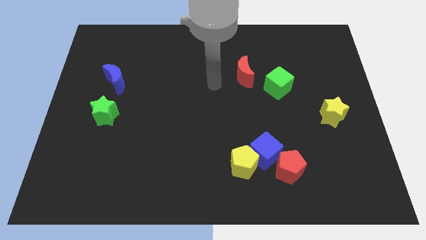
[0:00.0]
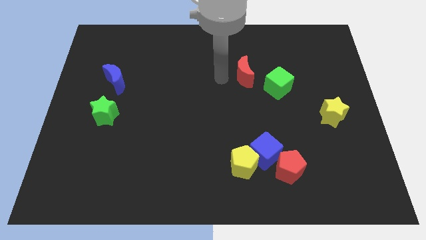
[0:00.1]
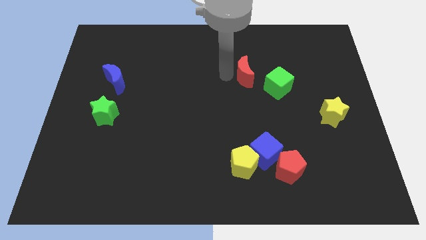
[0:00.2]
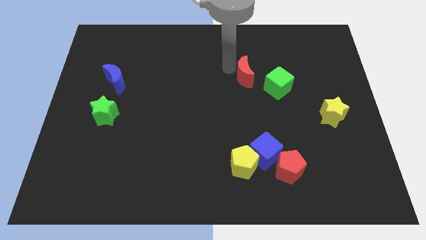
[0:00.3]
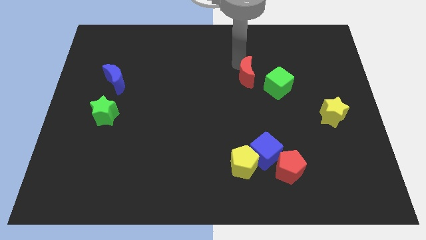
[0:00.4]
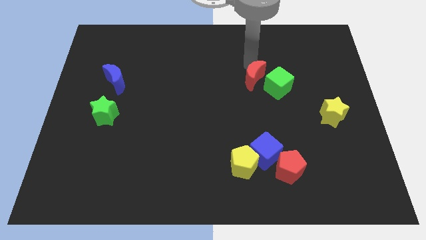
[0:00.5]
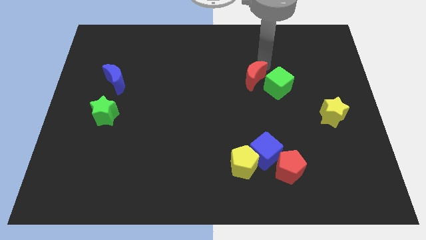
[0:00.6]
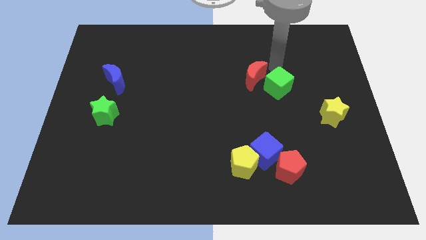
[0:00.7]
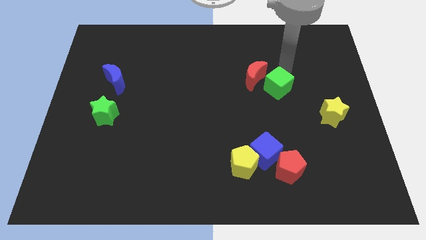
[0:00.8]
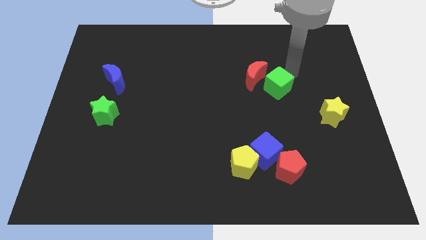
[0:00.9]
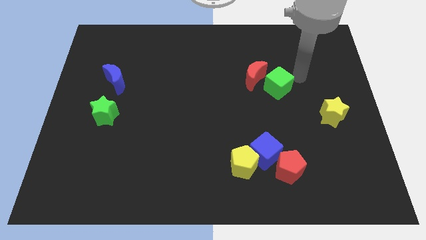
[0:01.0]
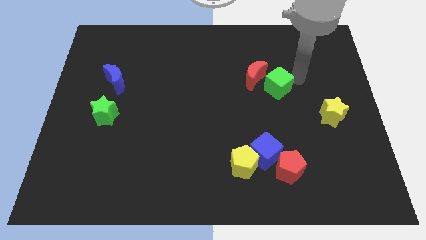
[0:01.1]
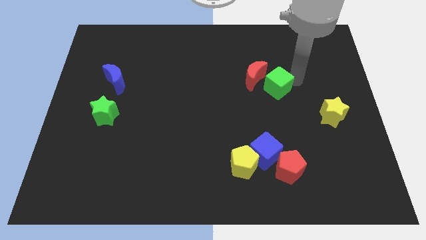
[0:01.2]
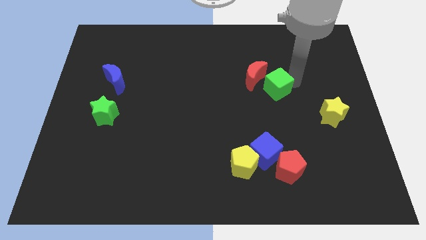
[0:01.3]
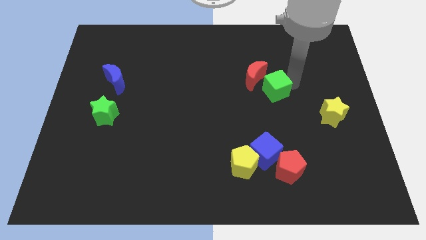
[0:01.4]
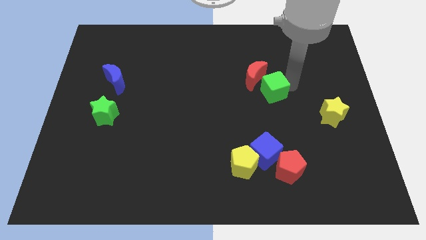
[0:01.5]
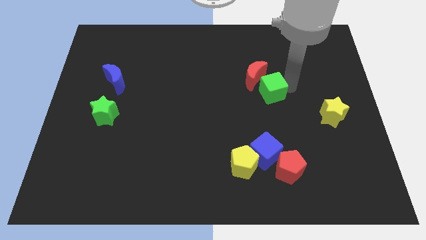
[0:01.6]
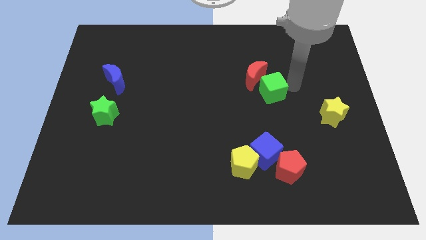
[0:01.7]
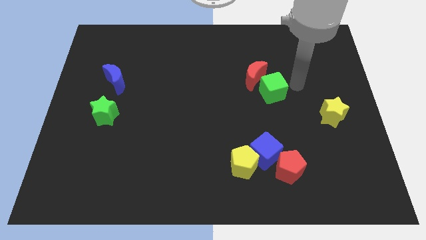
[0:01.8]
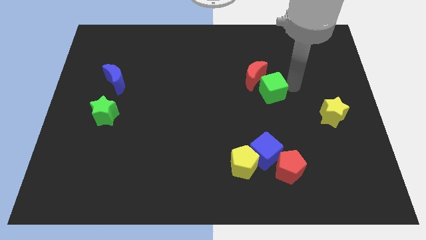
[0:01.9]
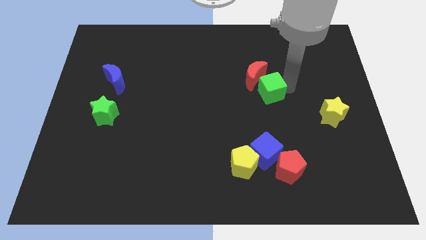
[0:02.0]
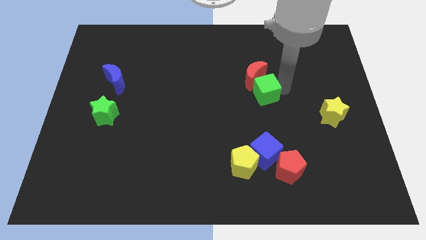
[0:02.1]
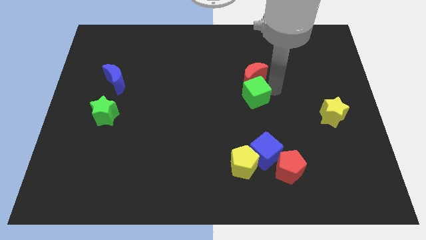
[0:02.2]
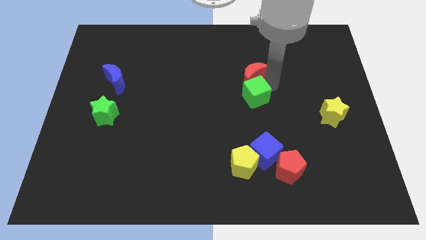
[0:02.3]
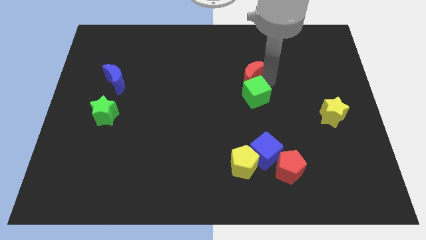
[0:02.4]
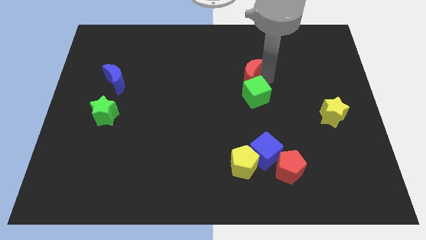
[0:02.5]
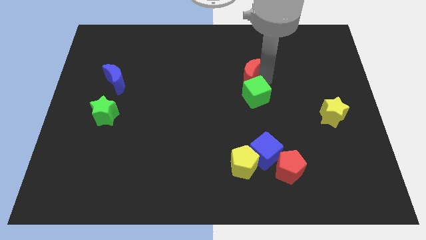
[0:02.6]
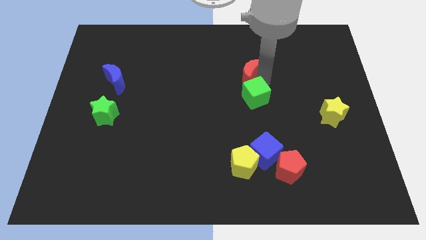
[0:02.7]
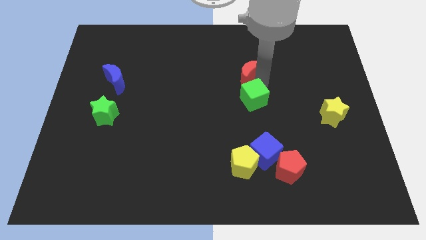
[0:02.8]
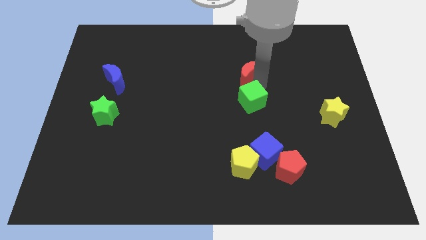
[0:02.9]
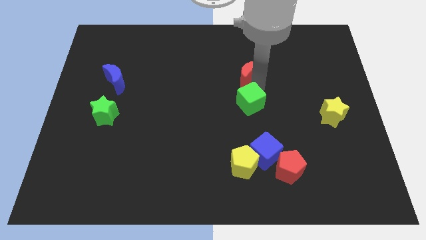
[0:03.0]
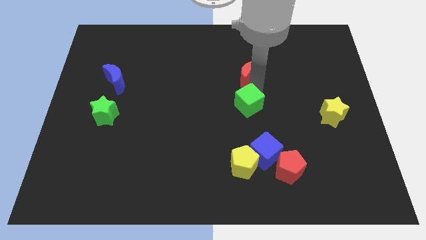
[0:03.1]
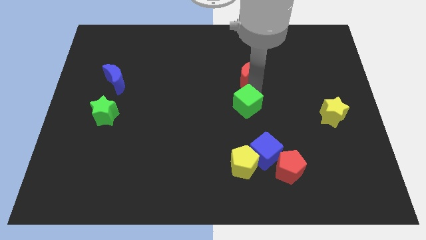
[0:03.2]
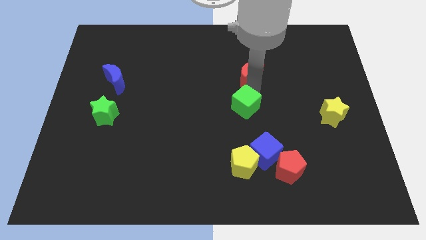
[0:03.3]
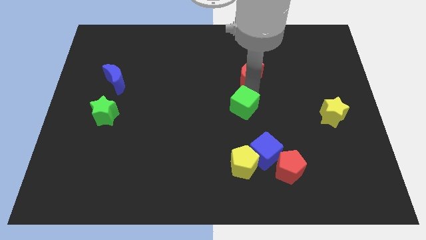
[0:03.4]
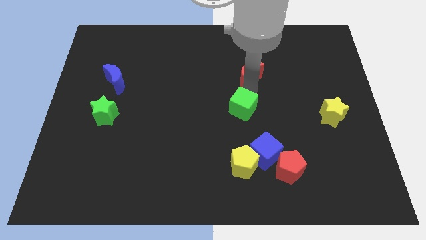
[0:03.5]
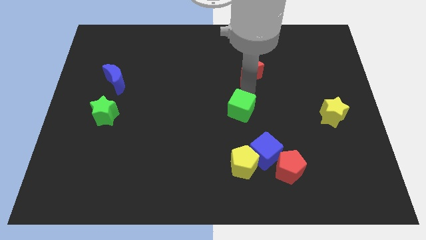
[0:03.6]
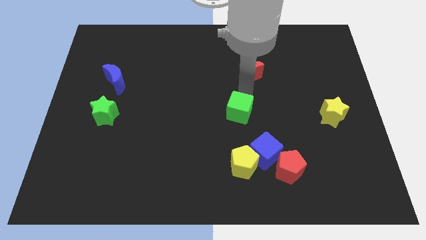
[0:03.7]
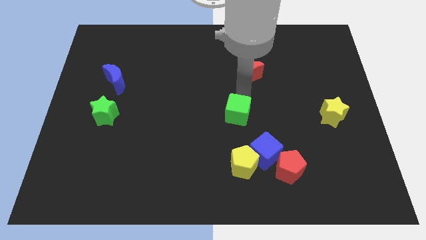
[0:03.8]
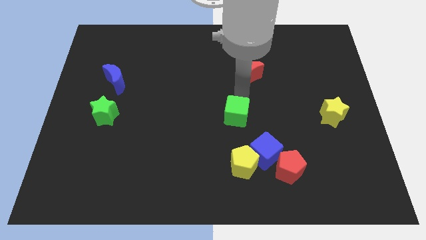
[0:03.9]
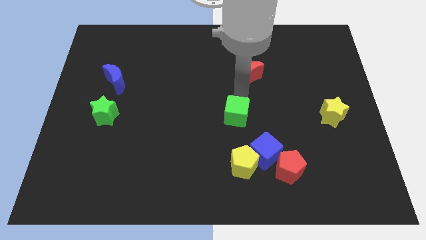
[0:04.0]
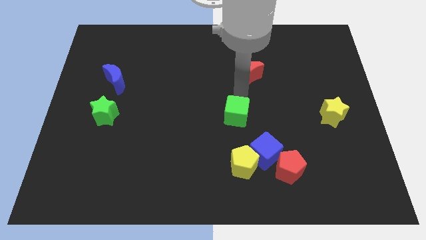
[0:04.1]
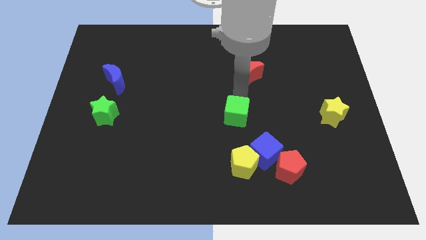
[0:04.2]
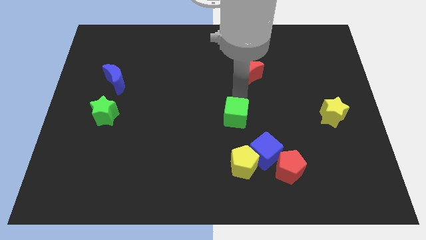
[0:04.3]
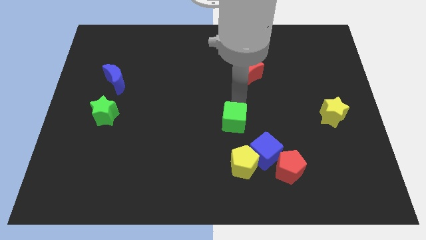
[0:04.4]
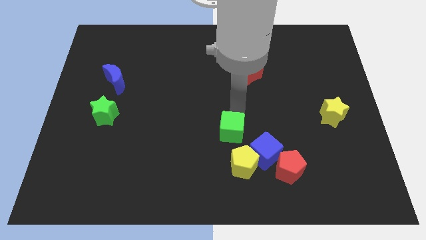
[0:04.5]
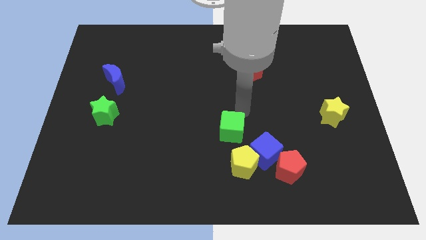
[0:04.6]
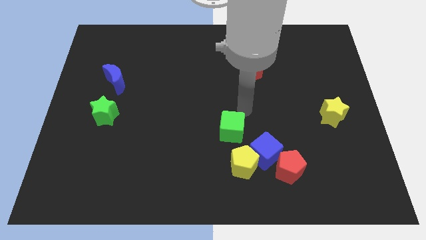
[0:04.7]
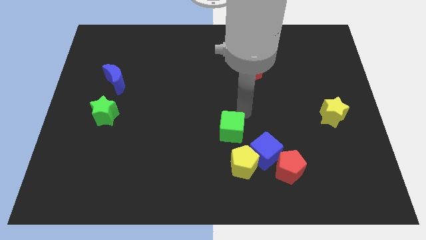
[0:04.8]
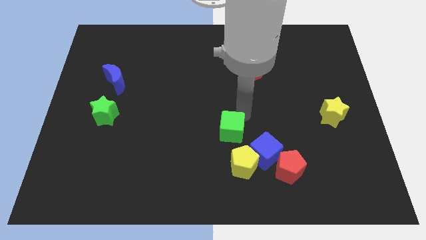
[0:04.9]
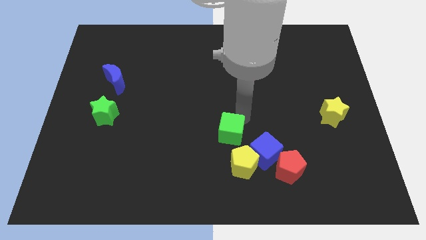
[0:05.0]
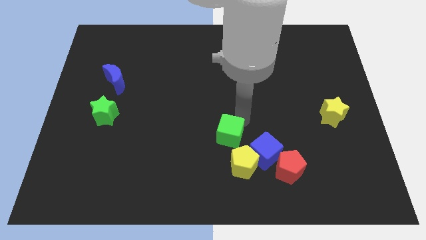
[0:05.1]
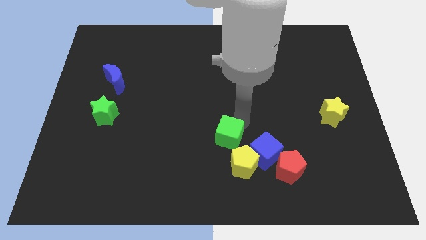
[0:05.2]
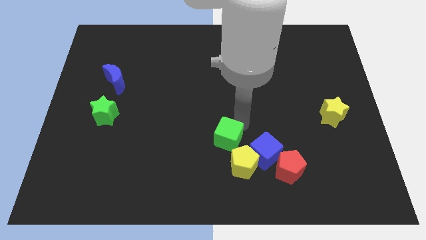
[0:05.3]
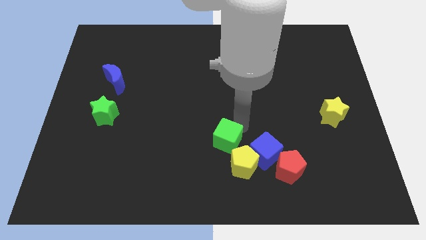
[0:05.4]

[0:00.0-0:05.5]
move the green cube down and then to the left

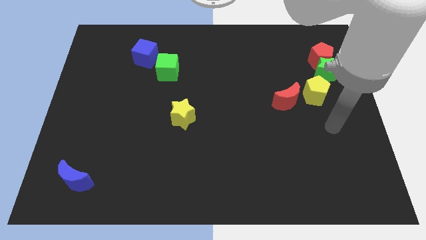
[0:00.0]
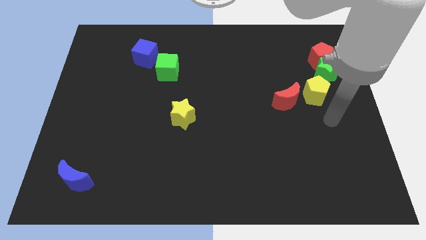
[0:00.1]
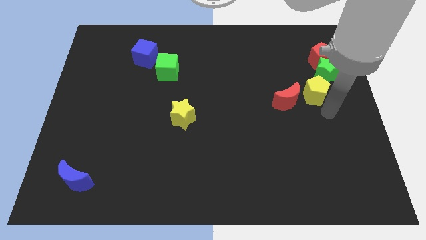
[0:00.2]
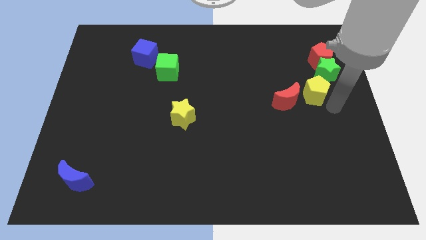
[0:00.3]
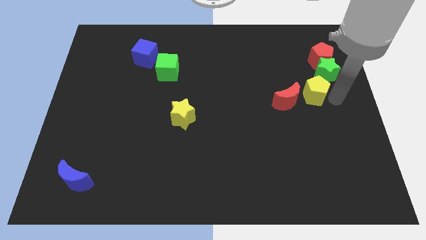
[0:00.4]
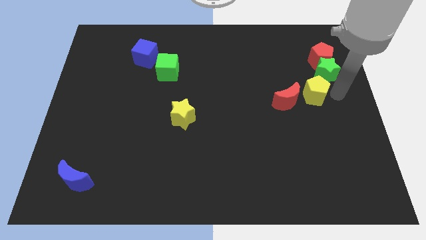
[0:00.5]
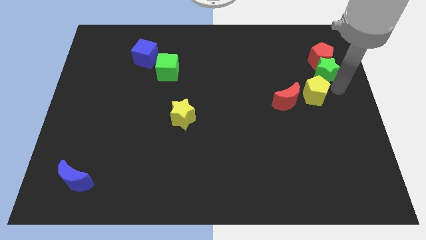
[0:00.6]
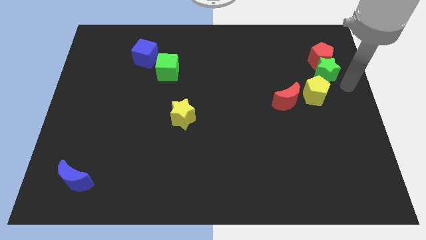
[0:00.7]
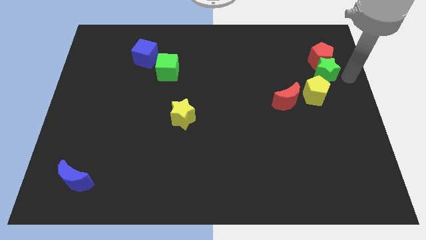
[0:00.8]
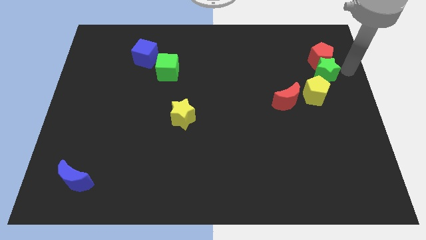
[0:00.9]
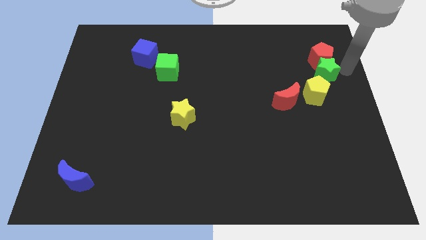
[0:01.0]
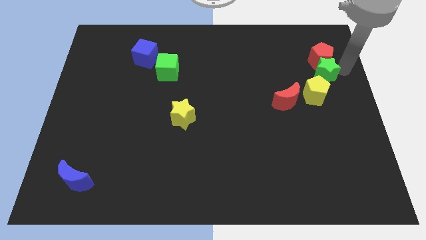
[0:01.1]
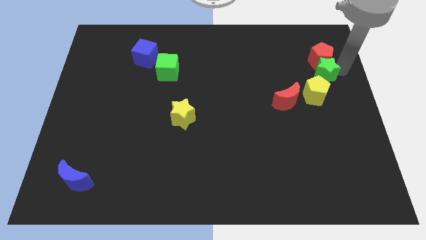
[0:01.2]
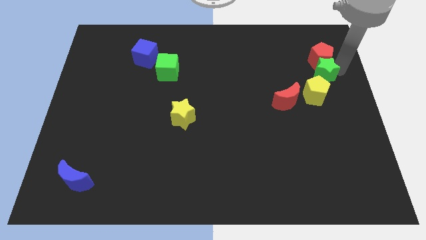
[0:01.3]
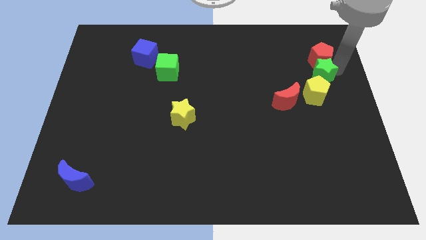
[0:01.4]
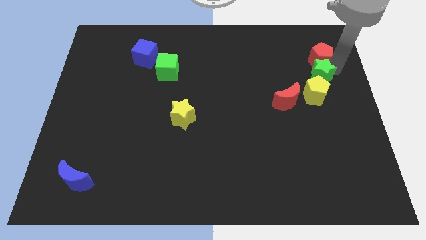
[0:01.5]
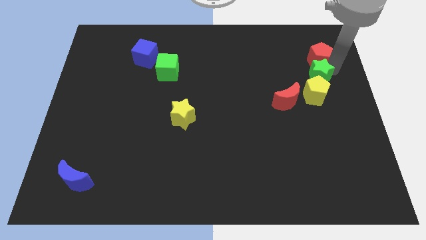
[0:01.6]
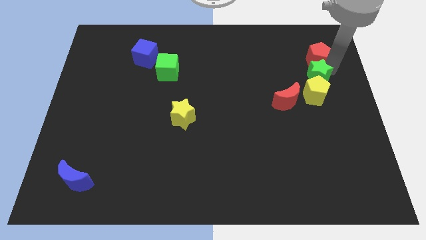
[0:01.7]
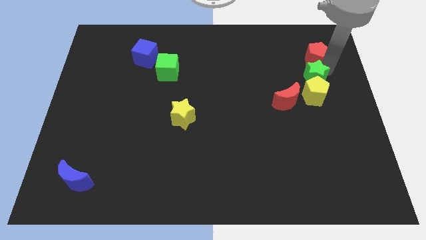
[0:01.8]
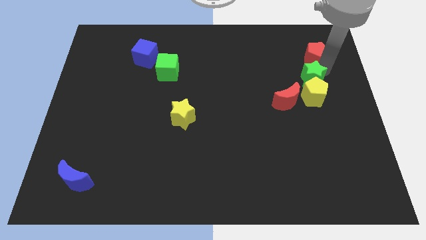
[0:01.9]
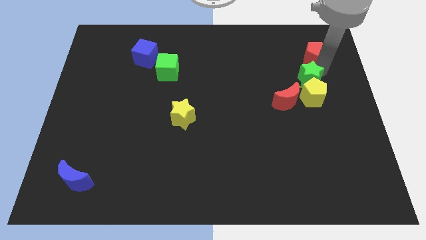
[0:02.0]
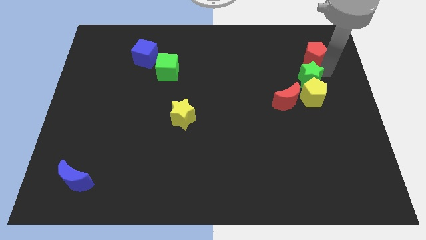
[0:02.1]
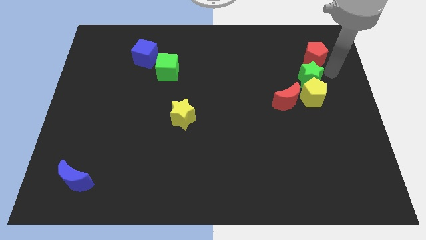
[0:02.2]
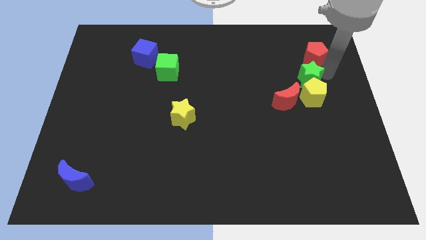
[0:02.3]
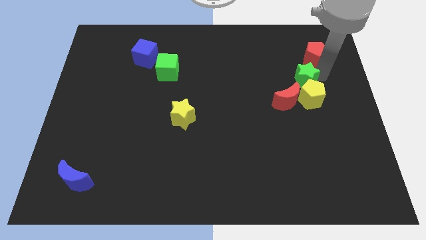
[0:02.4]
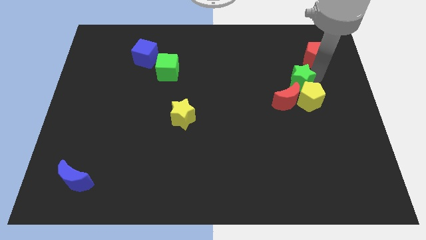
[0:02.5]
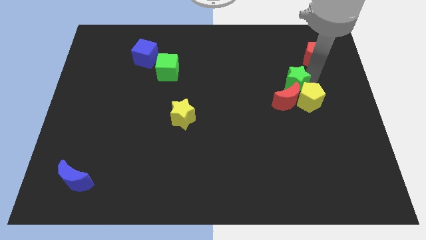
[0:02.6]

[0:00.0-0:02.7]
move the green star a little bit downwards and then to the left

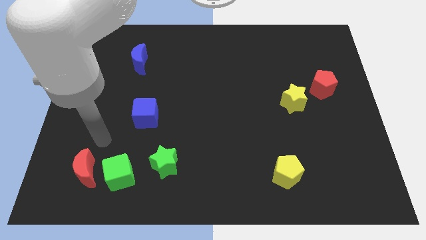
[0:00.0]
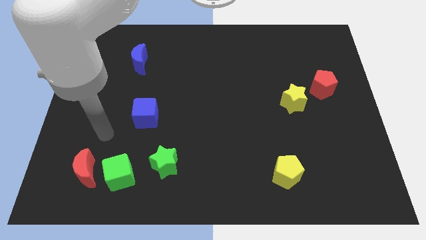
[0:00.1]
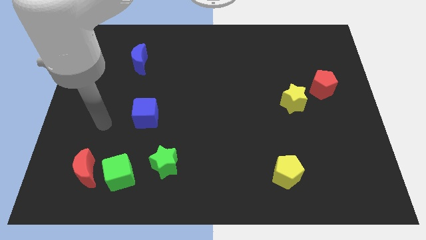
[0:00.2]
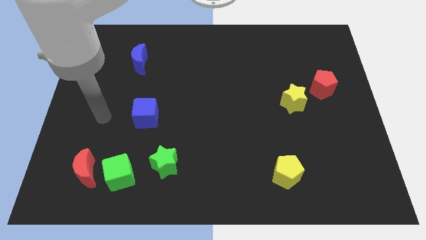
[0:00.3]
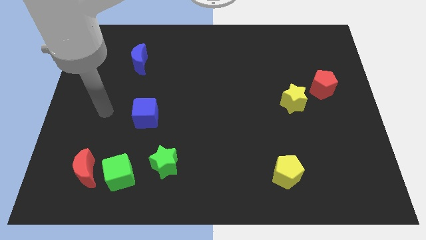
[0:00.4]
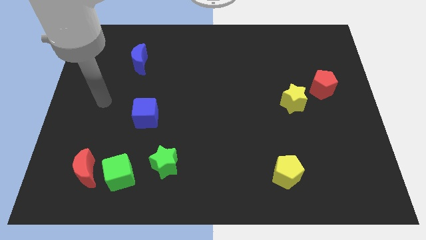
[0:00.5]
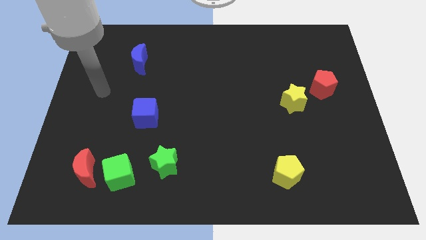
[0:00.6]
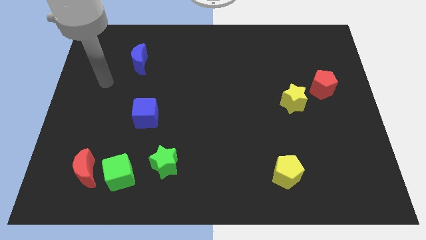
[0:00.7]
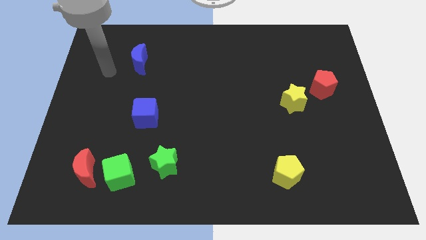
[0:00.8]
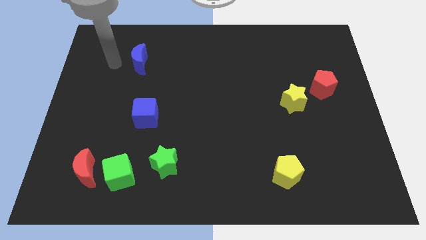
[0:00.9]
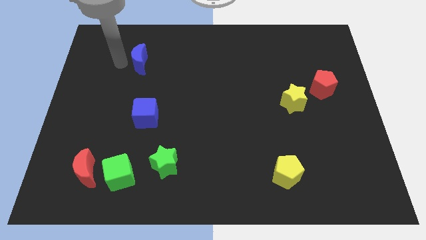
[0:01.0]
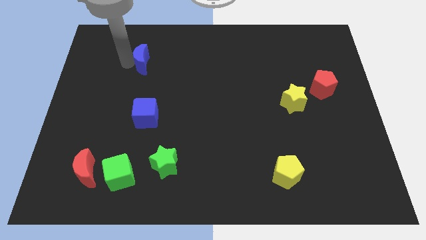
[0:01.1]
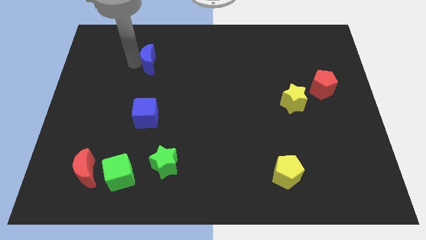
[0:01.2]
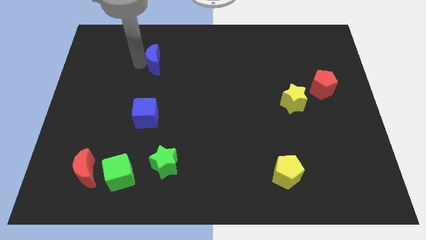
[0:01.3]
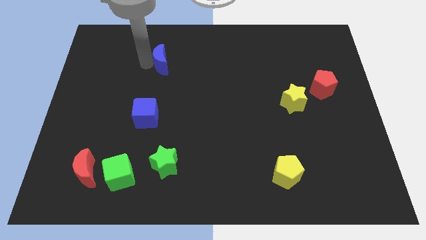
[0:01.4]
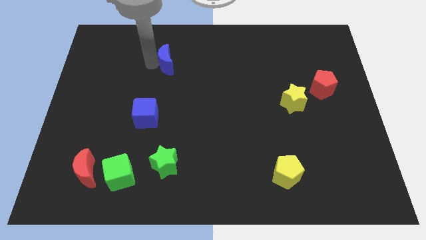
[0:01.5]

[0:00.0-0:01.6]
slide the blue moon a bit to the right
